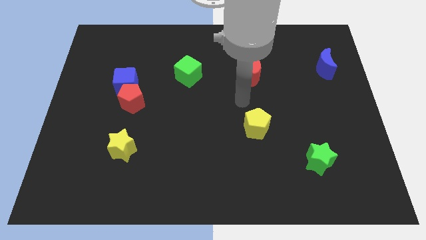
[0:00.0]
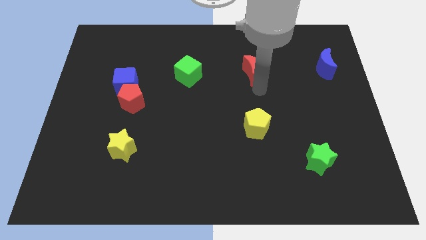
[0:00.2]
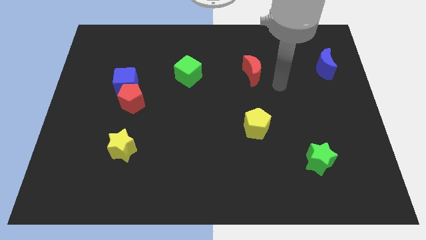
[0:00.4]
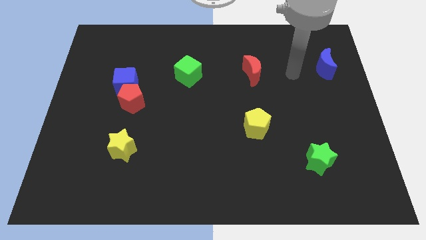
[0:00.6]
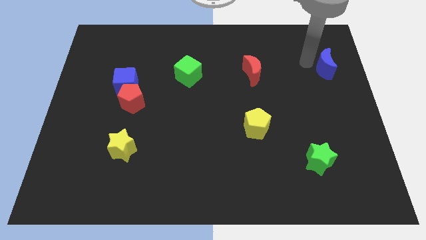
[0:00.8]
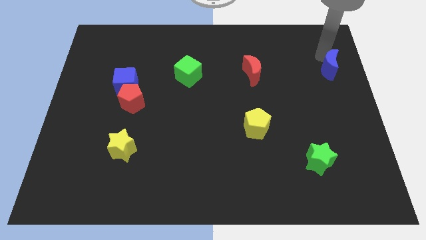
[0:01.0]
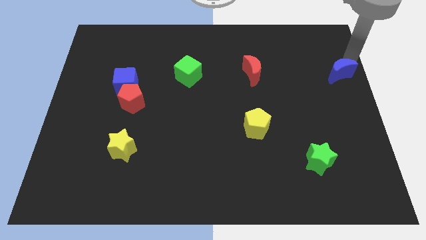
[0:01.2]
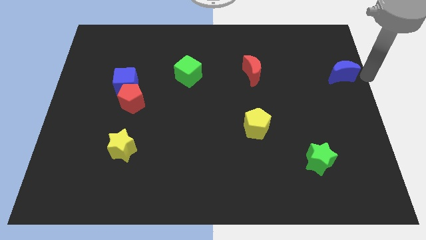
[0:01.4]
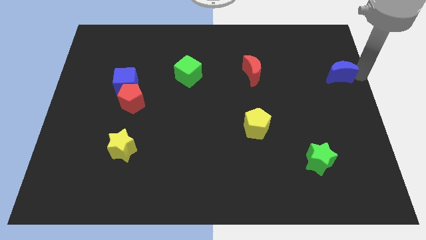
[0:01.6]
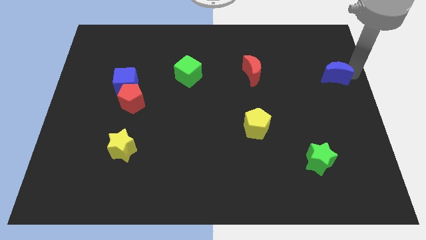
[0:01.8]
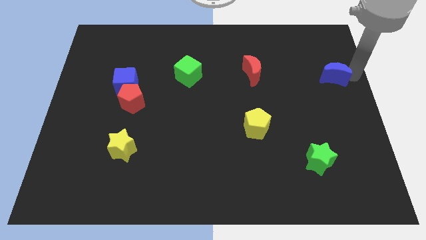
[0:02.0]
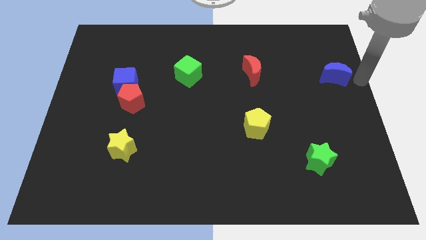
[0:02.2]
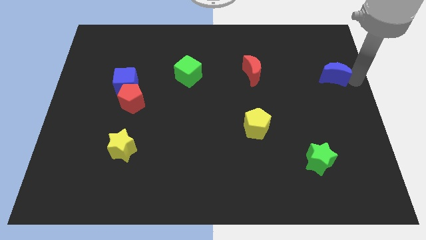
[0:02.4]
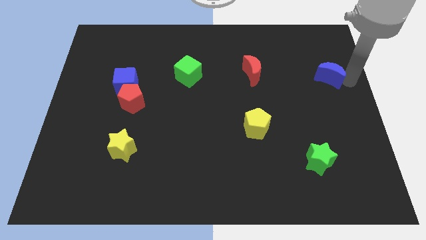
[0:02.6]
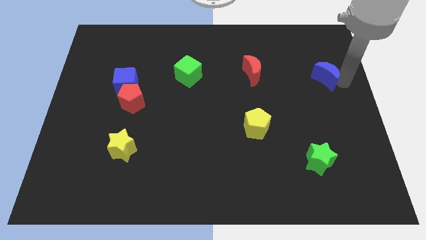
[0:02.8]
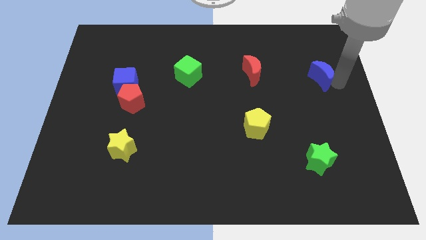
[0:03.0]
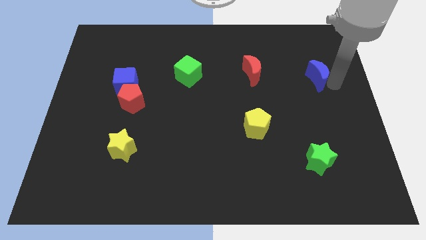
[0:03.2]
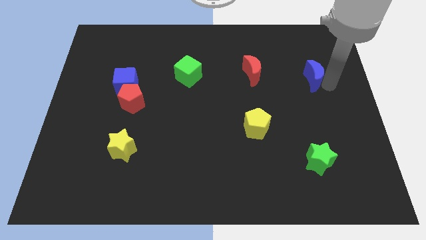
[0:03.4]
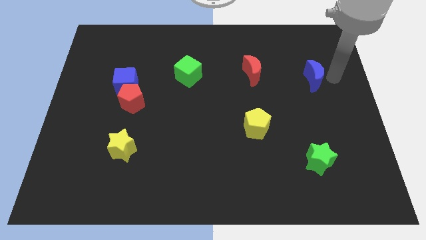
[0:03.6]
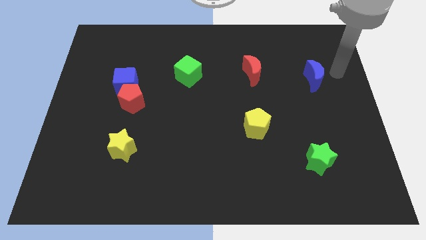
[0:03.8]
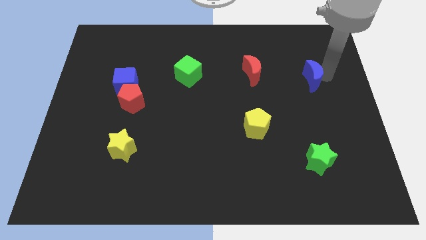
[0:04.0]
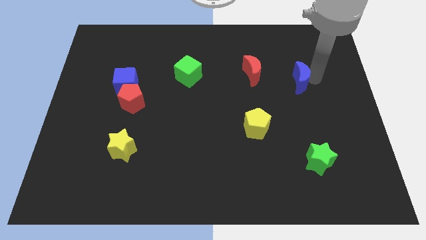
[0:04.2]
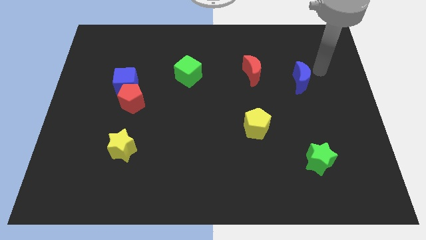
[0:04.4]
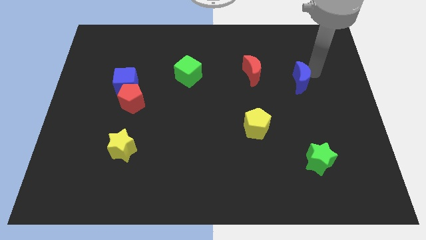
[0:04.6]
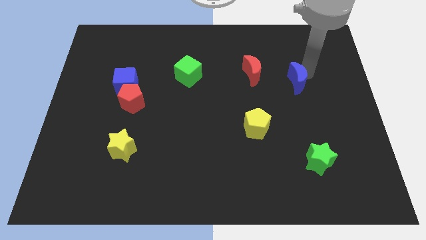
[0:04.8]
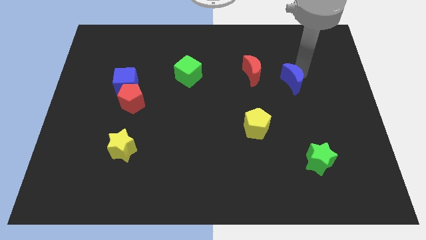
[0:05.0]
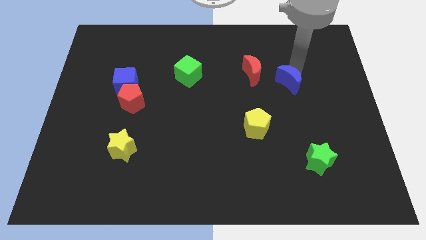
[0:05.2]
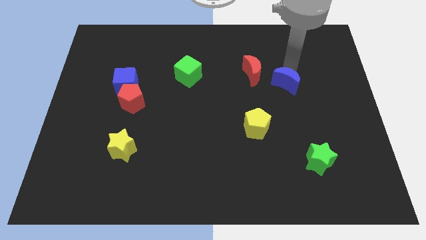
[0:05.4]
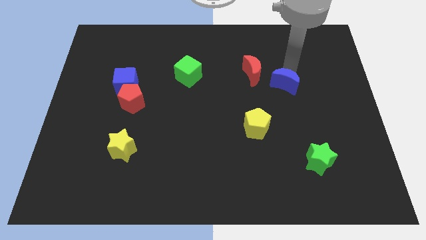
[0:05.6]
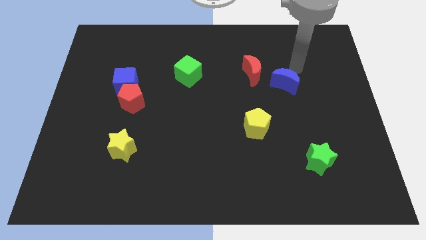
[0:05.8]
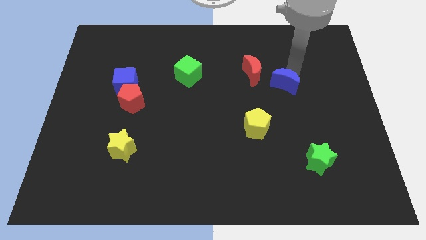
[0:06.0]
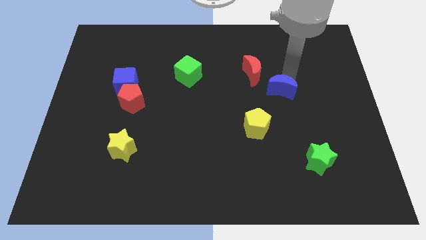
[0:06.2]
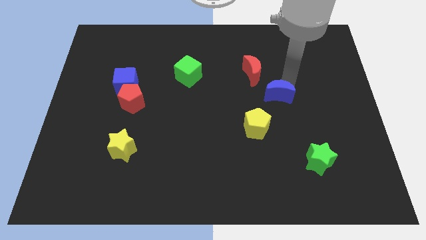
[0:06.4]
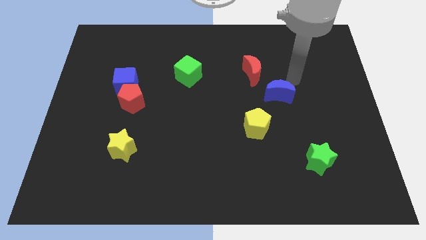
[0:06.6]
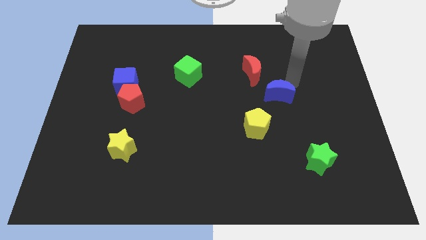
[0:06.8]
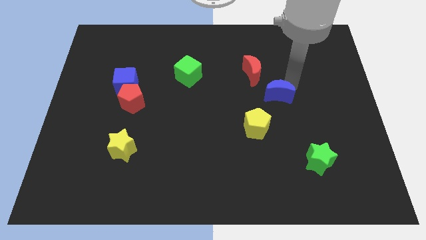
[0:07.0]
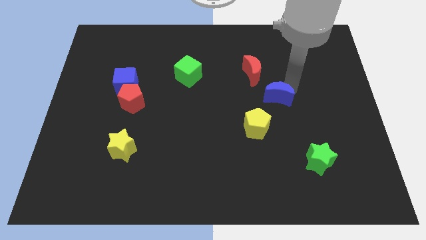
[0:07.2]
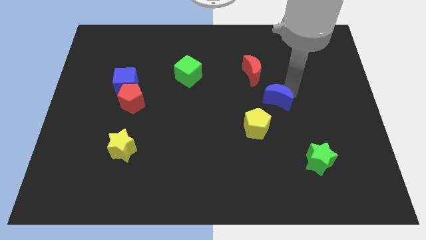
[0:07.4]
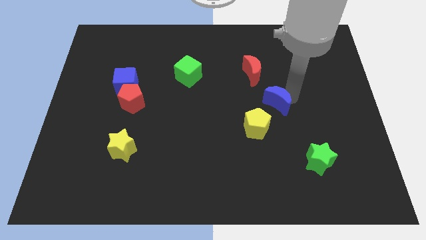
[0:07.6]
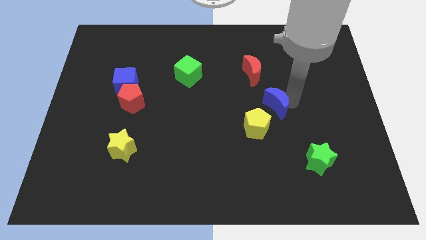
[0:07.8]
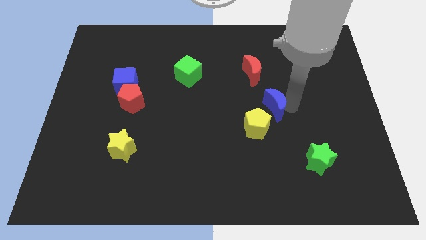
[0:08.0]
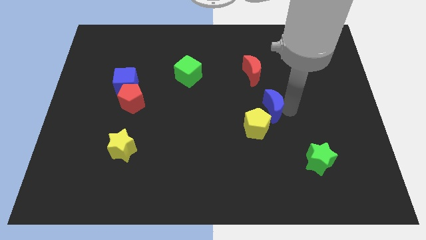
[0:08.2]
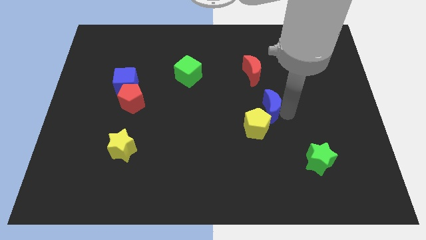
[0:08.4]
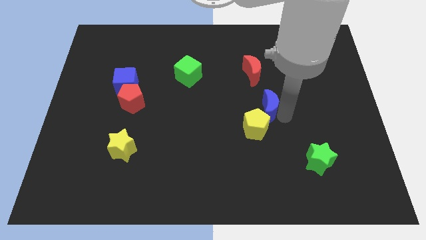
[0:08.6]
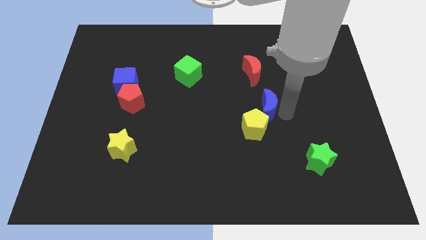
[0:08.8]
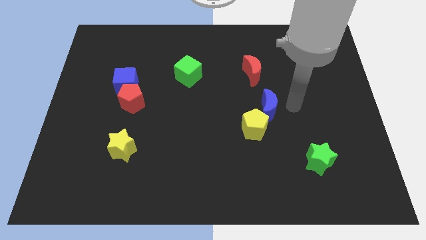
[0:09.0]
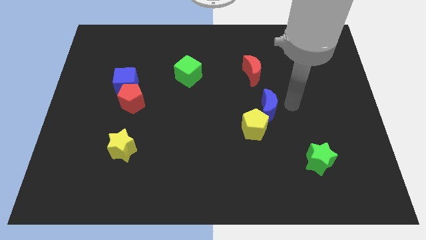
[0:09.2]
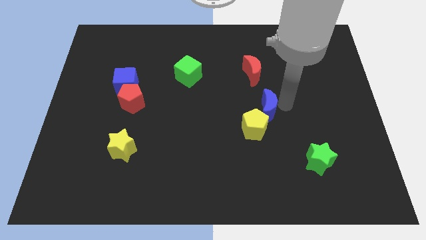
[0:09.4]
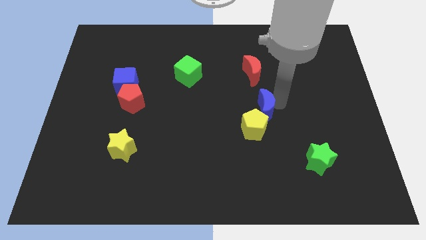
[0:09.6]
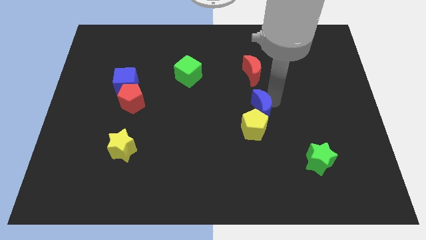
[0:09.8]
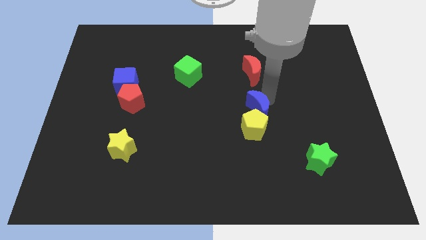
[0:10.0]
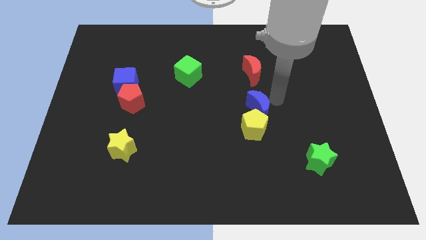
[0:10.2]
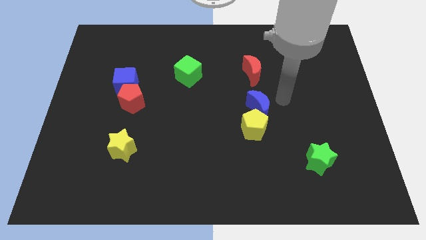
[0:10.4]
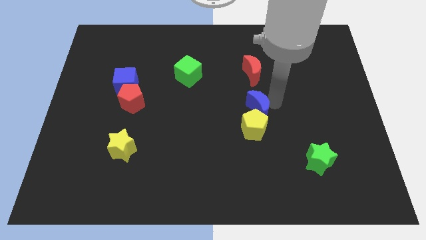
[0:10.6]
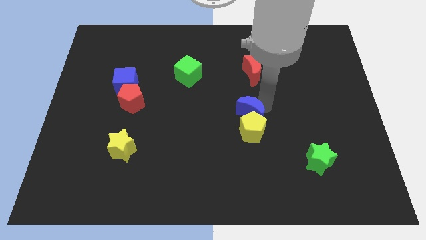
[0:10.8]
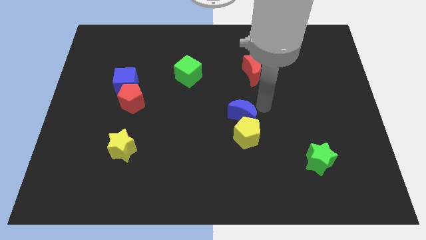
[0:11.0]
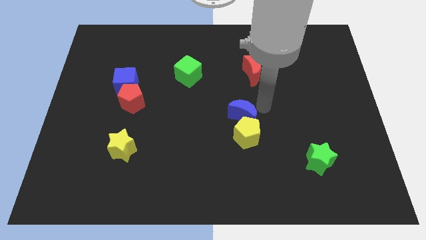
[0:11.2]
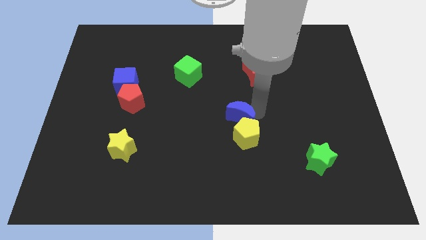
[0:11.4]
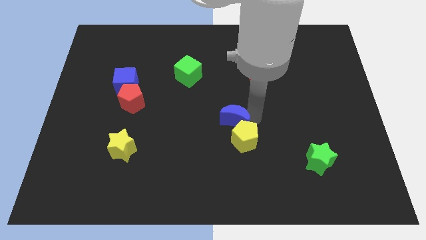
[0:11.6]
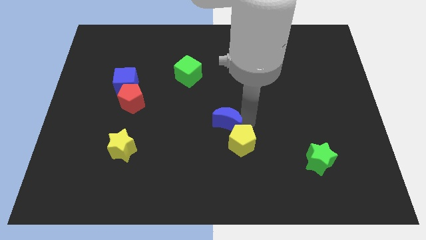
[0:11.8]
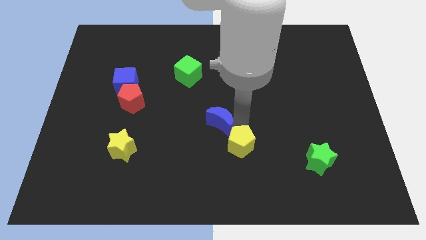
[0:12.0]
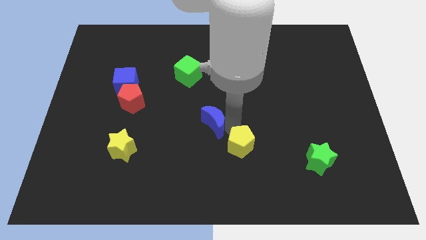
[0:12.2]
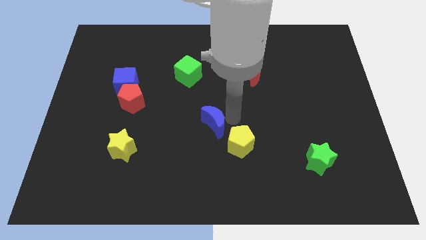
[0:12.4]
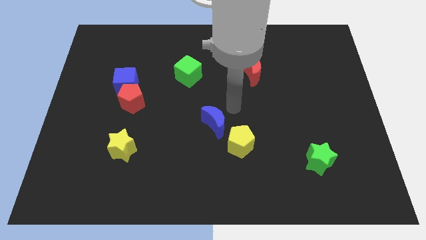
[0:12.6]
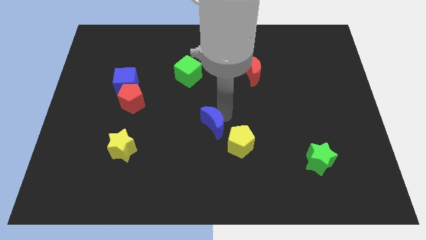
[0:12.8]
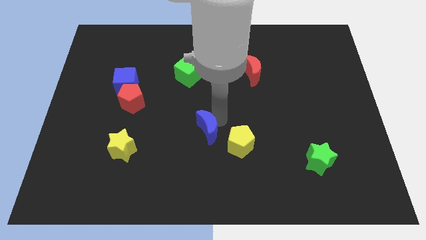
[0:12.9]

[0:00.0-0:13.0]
move the blue moon just left of the yellow pentagon

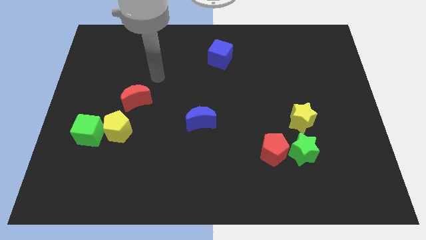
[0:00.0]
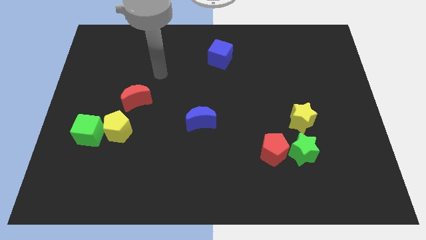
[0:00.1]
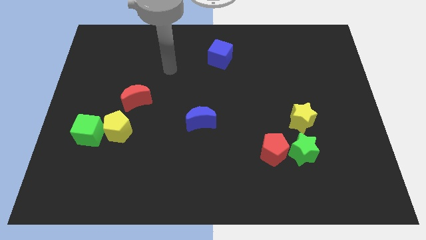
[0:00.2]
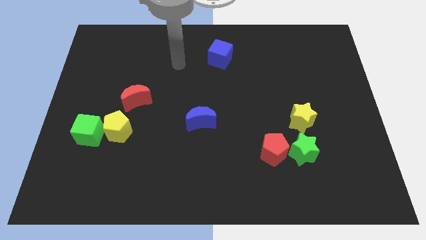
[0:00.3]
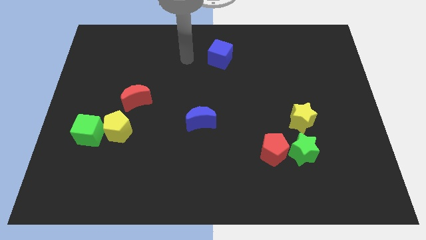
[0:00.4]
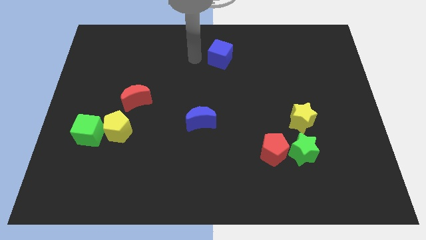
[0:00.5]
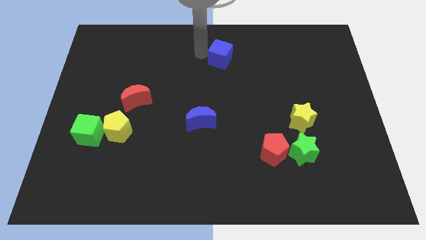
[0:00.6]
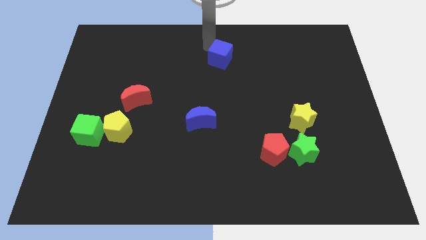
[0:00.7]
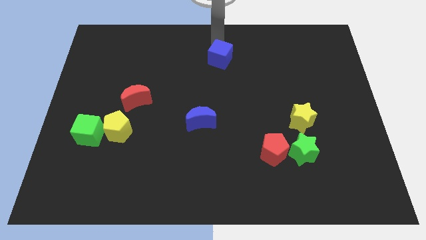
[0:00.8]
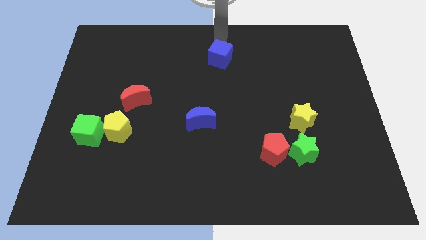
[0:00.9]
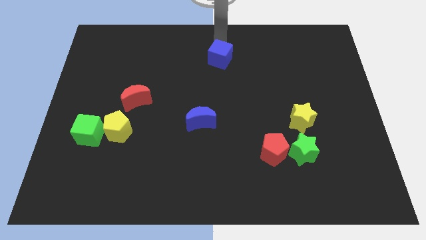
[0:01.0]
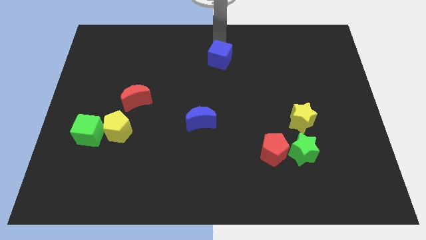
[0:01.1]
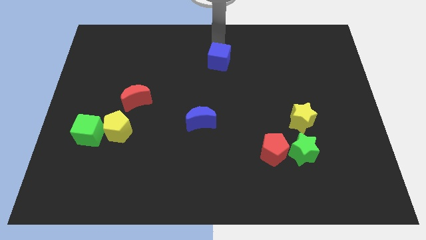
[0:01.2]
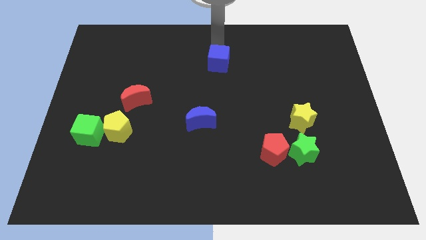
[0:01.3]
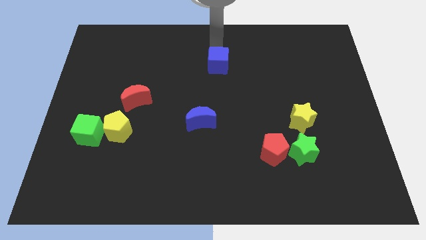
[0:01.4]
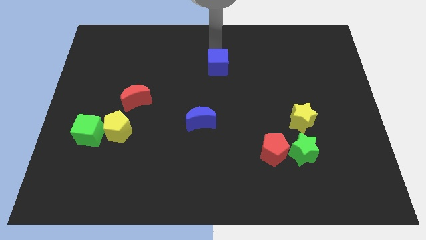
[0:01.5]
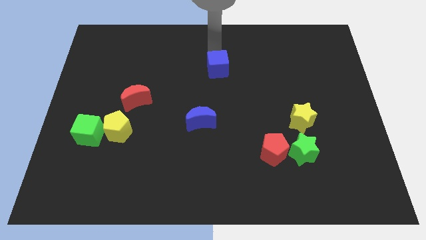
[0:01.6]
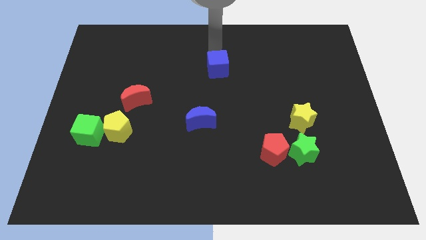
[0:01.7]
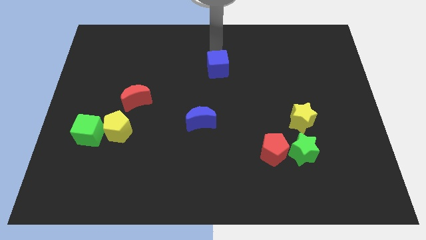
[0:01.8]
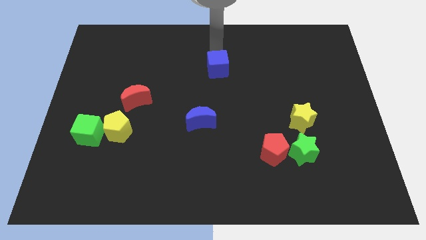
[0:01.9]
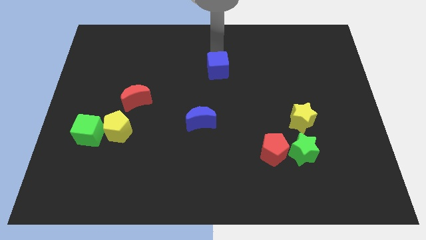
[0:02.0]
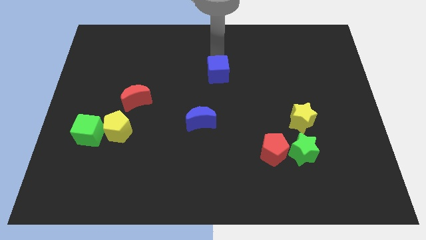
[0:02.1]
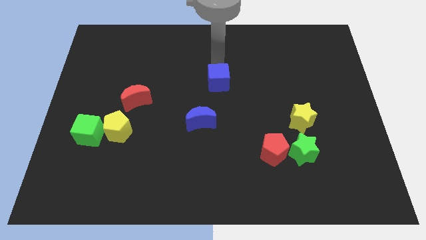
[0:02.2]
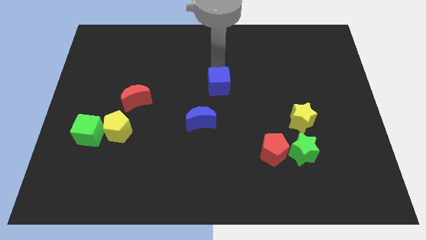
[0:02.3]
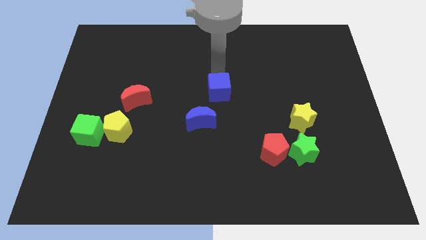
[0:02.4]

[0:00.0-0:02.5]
put the blue cube to the top right of the blue moon
